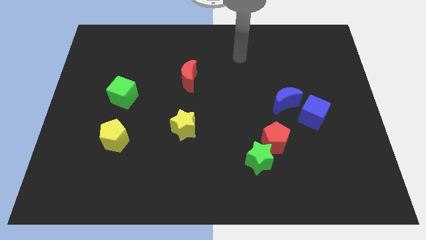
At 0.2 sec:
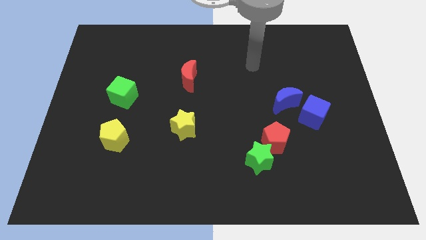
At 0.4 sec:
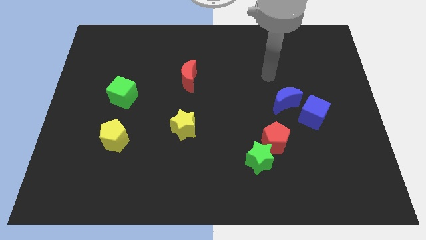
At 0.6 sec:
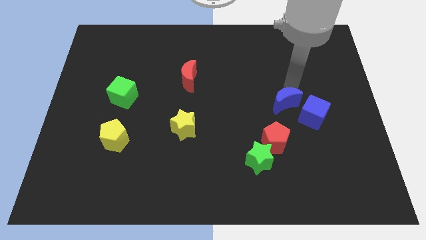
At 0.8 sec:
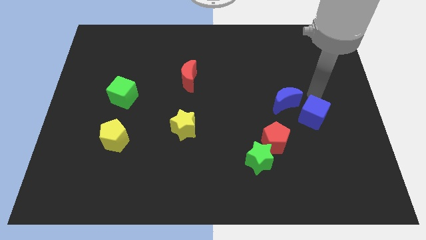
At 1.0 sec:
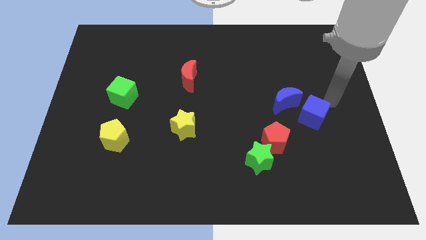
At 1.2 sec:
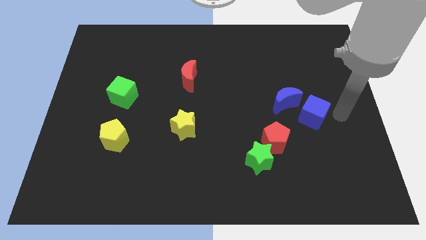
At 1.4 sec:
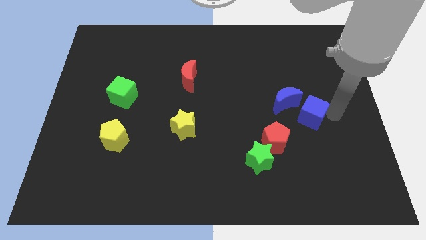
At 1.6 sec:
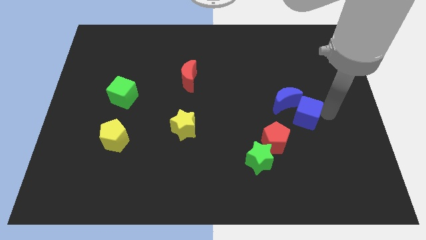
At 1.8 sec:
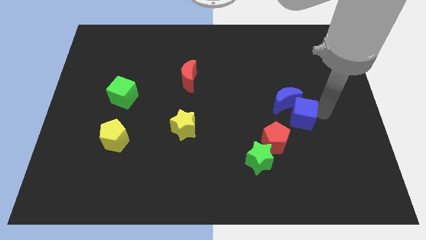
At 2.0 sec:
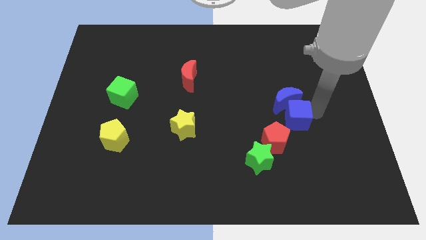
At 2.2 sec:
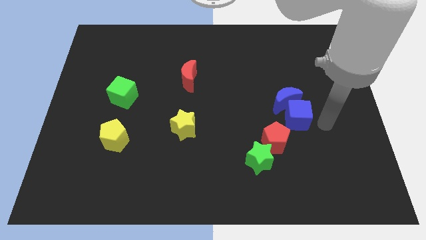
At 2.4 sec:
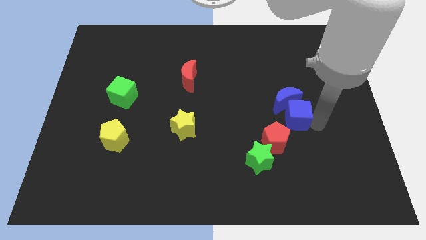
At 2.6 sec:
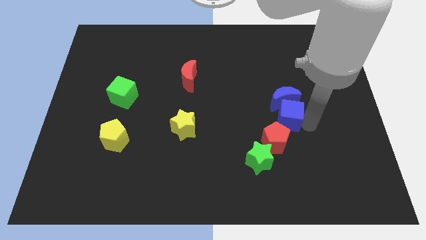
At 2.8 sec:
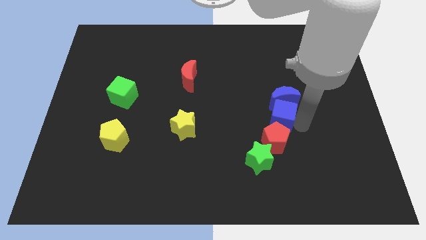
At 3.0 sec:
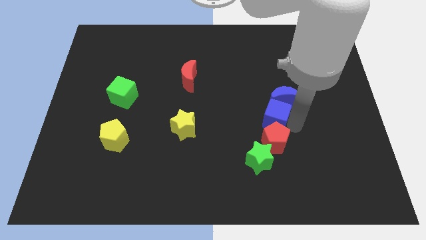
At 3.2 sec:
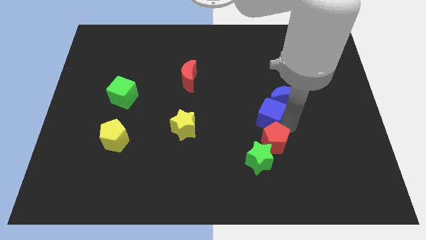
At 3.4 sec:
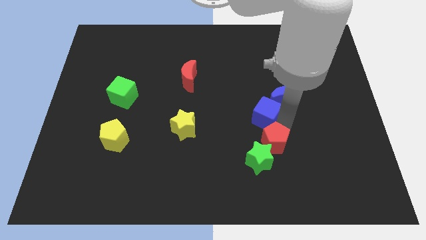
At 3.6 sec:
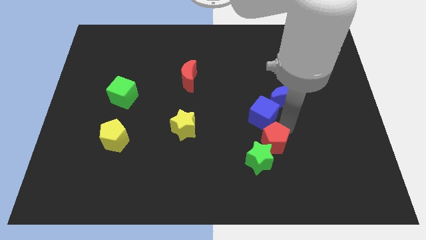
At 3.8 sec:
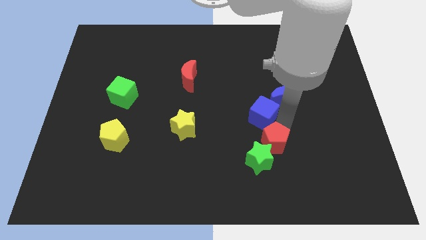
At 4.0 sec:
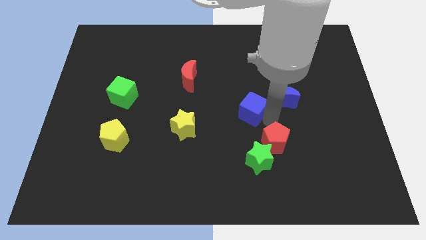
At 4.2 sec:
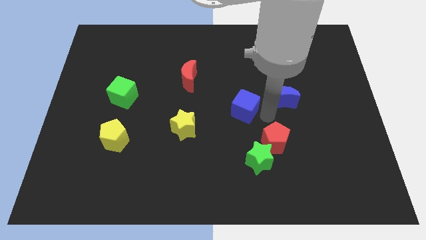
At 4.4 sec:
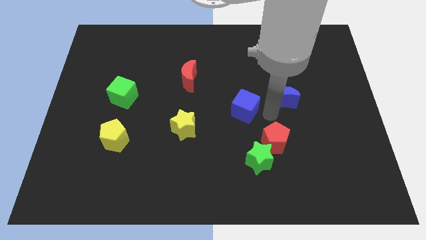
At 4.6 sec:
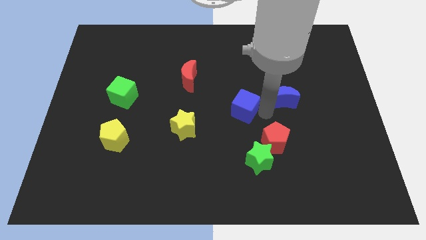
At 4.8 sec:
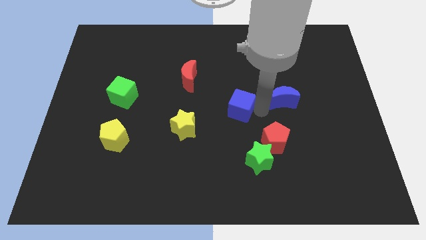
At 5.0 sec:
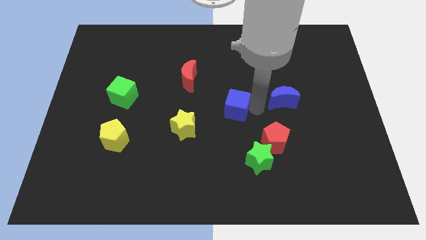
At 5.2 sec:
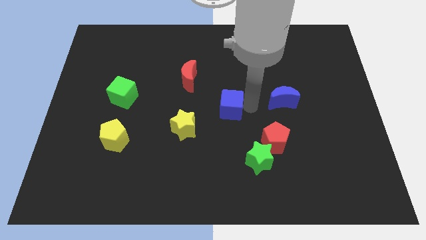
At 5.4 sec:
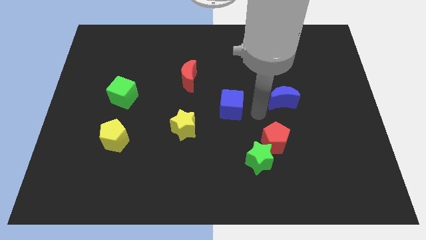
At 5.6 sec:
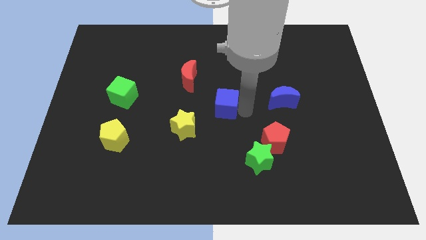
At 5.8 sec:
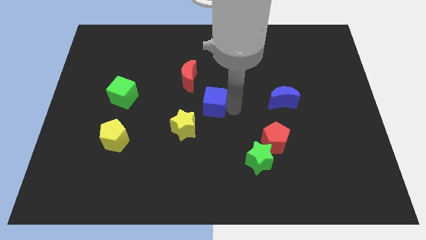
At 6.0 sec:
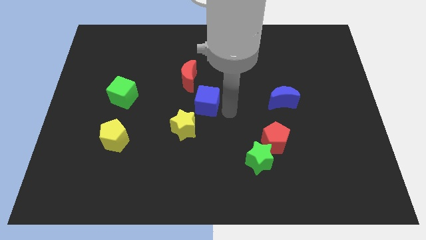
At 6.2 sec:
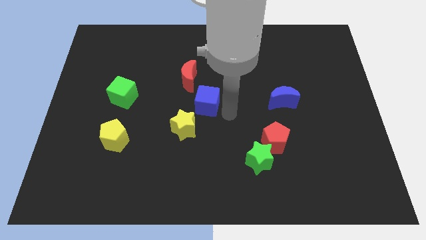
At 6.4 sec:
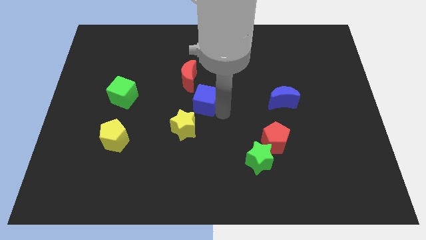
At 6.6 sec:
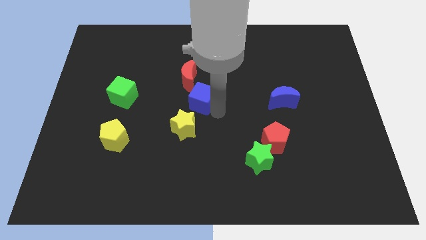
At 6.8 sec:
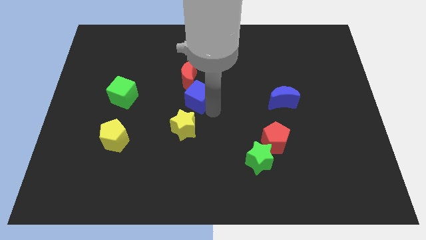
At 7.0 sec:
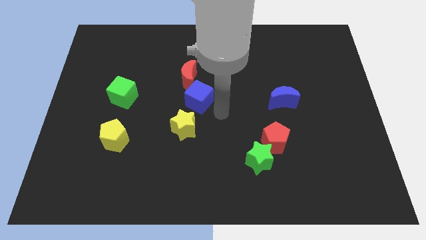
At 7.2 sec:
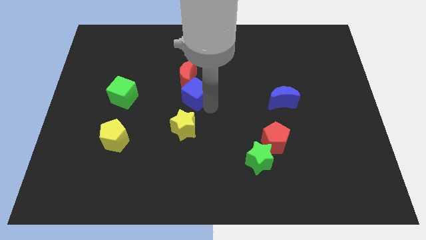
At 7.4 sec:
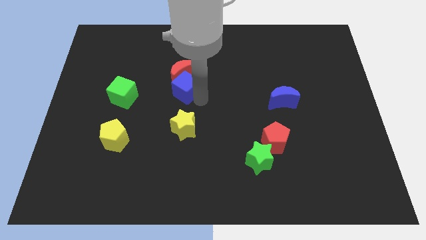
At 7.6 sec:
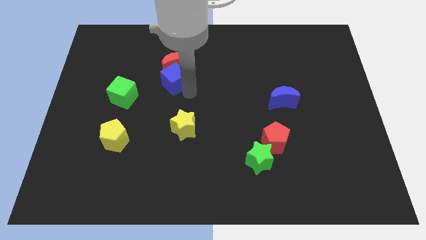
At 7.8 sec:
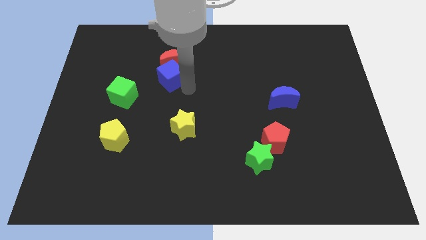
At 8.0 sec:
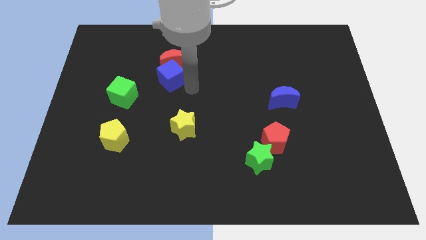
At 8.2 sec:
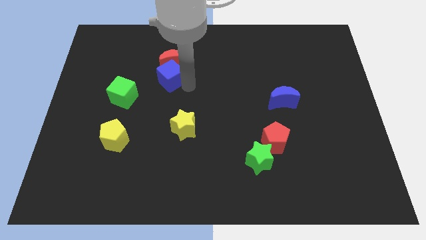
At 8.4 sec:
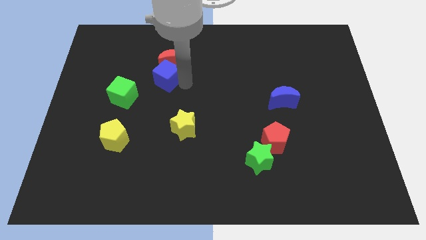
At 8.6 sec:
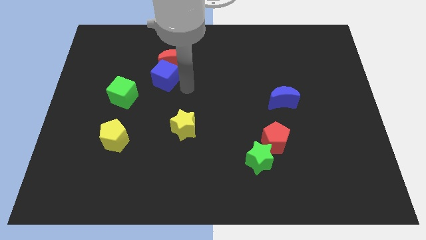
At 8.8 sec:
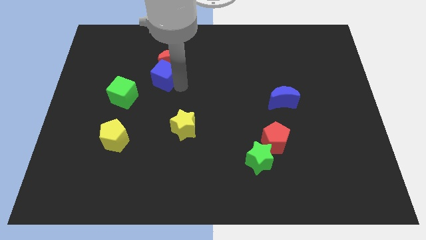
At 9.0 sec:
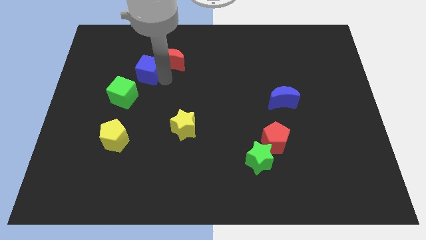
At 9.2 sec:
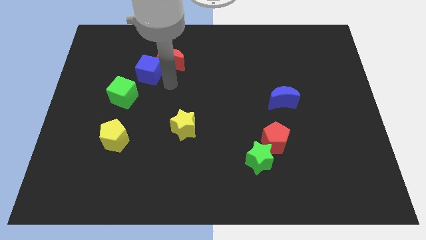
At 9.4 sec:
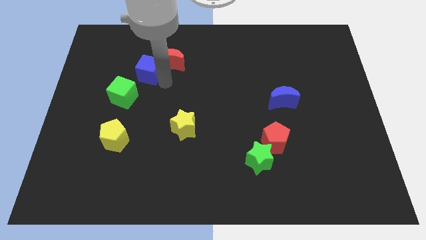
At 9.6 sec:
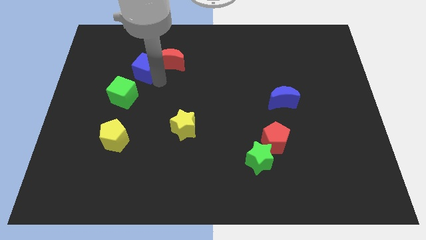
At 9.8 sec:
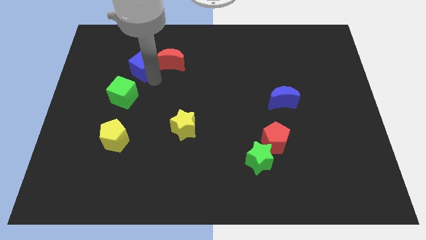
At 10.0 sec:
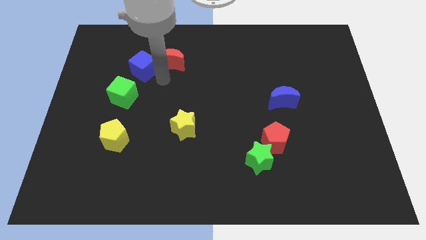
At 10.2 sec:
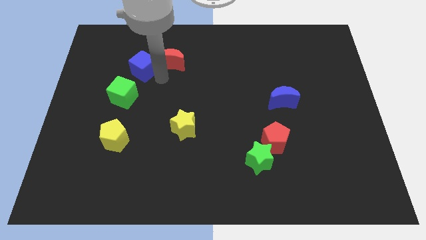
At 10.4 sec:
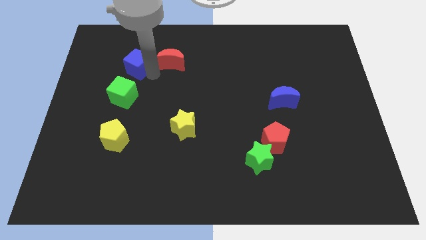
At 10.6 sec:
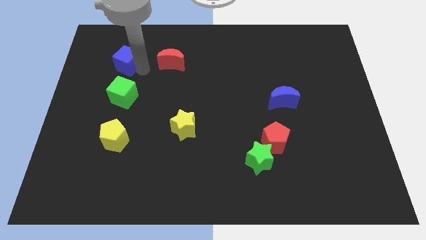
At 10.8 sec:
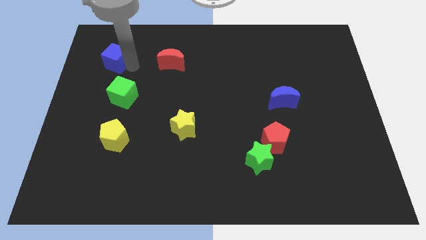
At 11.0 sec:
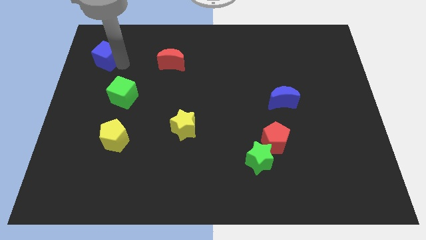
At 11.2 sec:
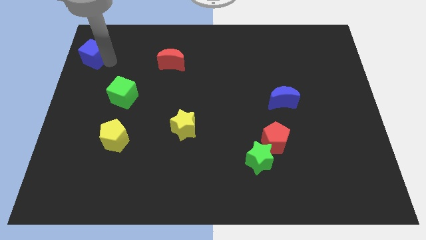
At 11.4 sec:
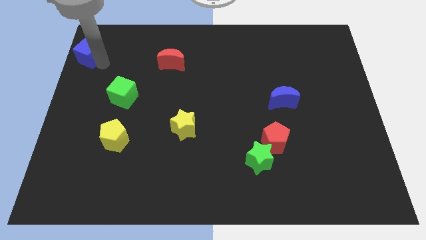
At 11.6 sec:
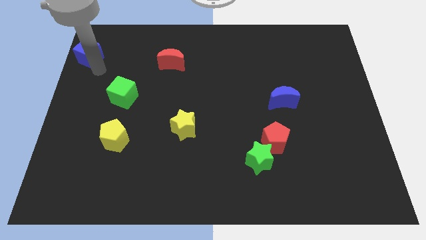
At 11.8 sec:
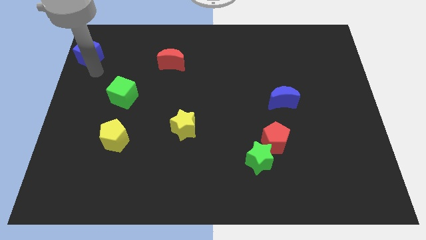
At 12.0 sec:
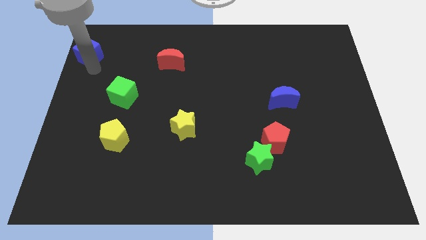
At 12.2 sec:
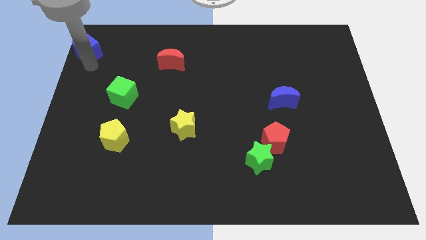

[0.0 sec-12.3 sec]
move the blue cube to the top left

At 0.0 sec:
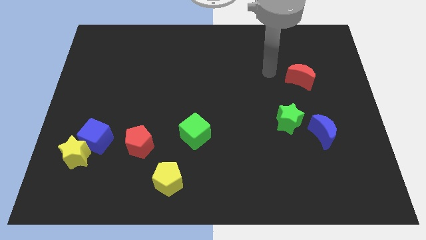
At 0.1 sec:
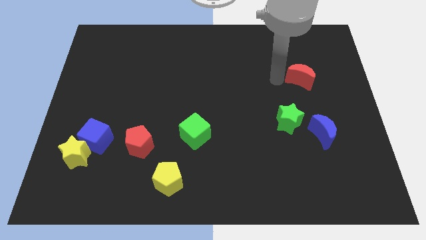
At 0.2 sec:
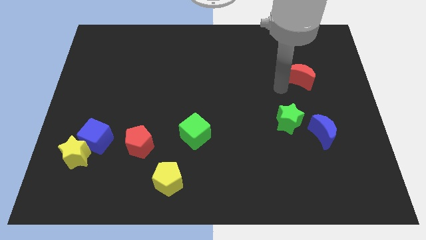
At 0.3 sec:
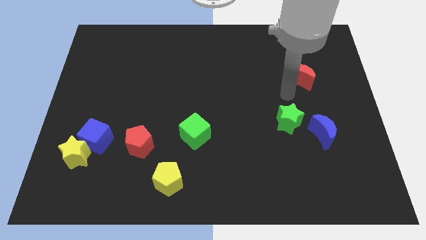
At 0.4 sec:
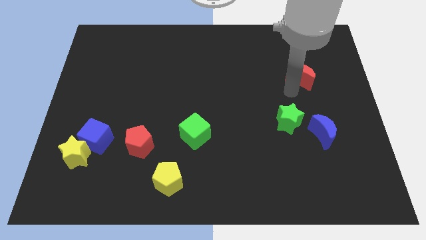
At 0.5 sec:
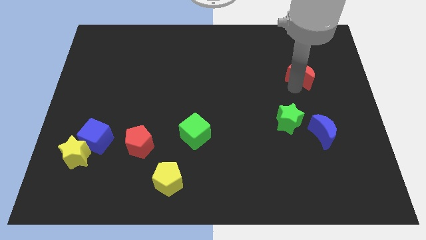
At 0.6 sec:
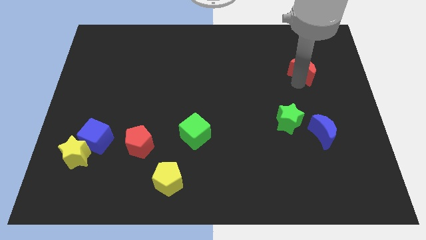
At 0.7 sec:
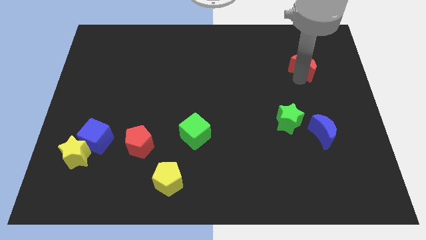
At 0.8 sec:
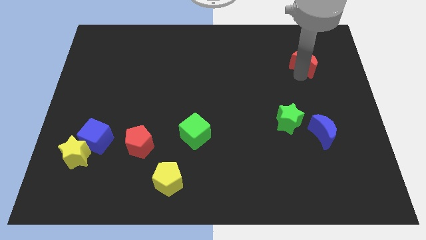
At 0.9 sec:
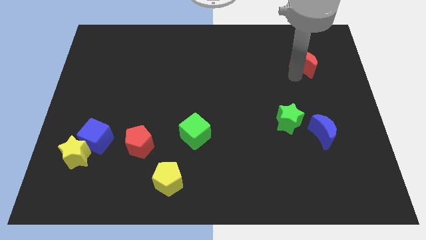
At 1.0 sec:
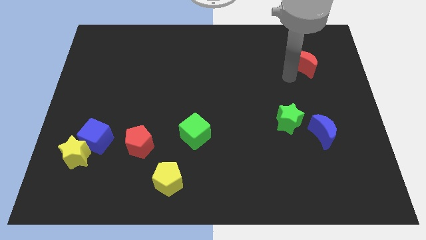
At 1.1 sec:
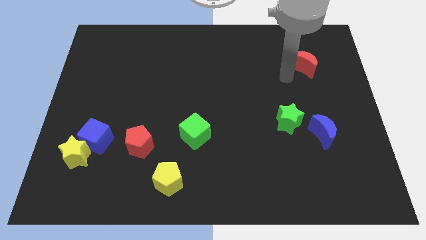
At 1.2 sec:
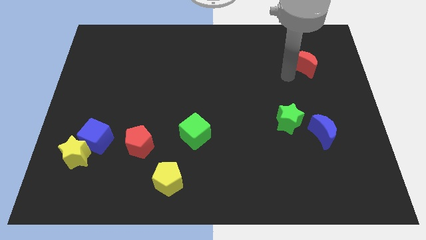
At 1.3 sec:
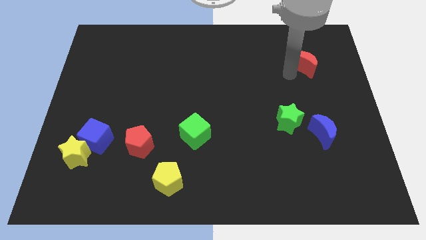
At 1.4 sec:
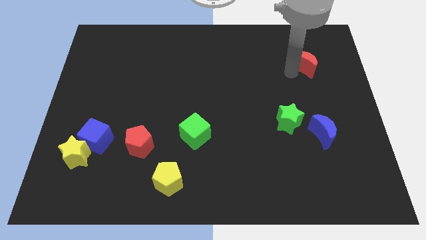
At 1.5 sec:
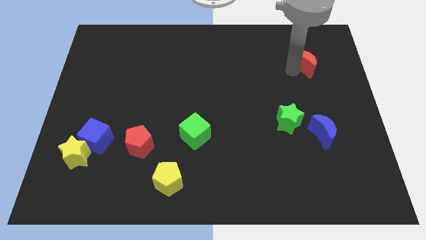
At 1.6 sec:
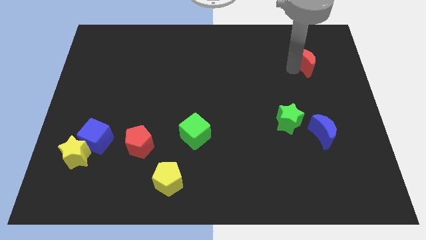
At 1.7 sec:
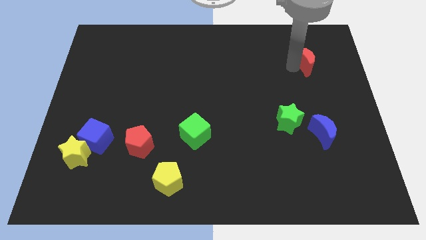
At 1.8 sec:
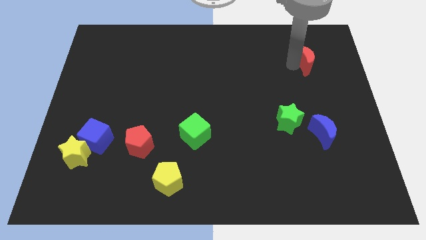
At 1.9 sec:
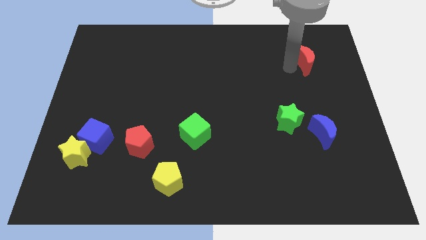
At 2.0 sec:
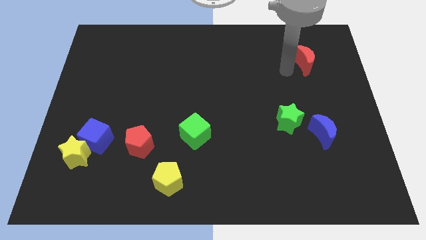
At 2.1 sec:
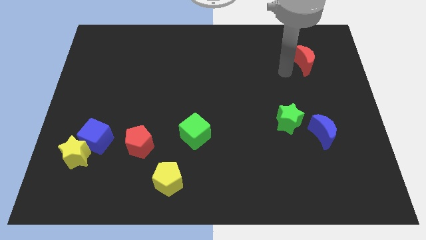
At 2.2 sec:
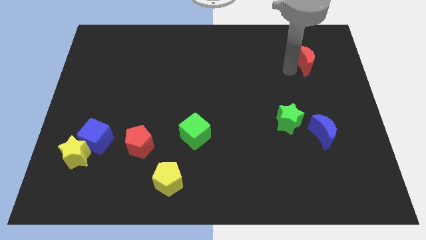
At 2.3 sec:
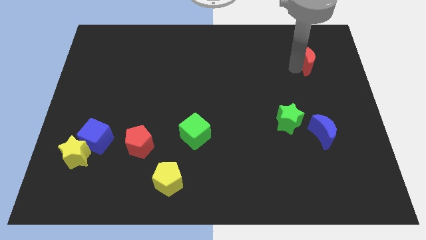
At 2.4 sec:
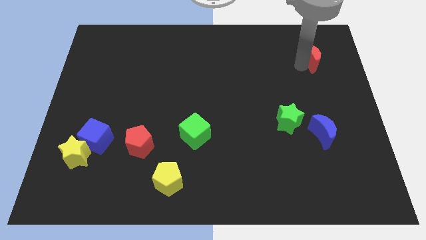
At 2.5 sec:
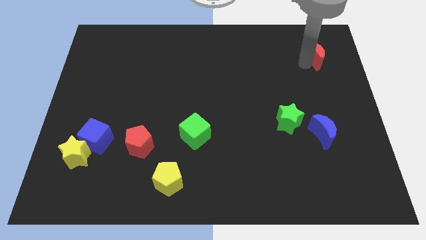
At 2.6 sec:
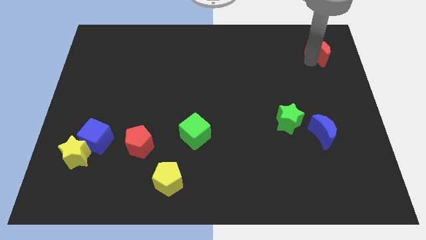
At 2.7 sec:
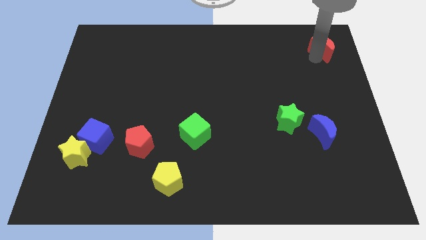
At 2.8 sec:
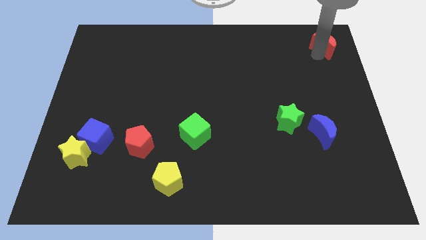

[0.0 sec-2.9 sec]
put the red moon to the top right corner
